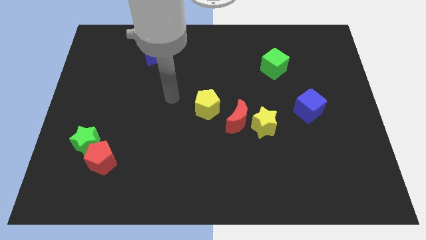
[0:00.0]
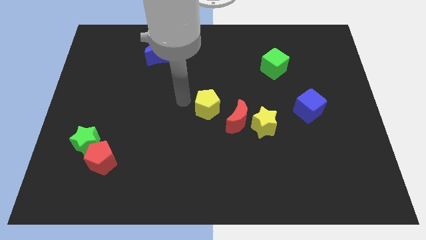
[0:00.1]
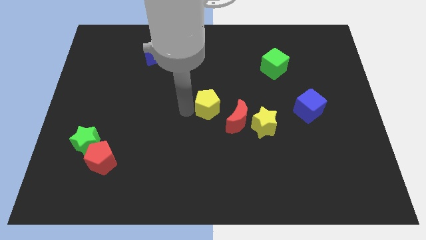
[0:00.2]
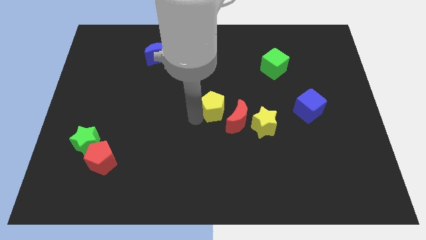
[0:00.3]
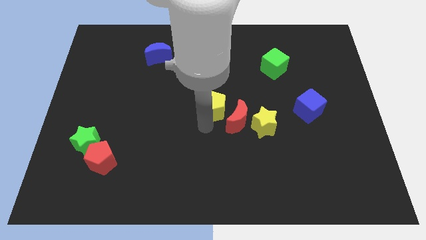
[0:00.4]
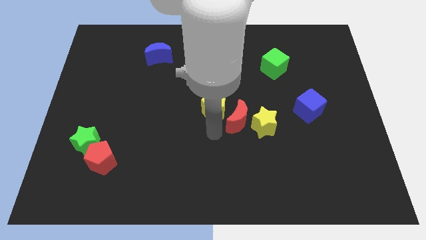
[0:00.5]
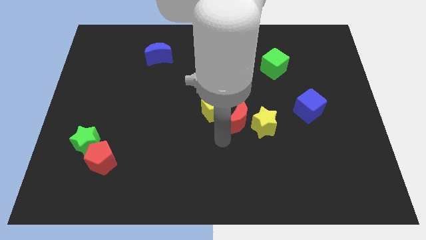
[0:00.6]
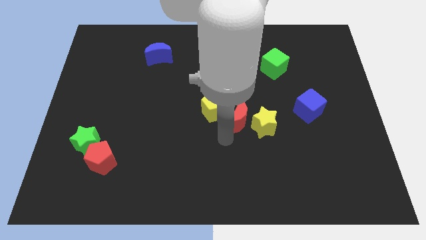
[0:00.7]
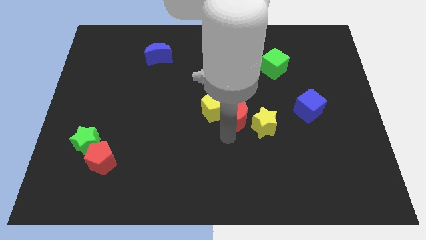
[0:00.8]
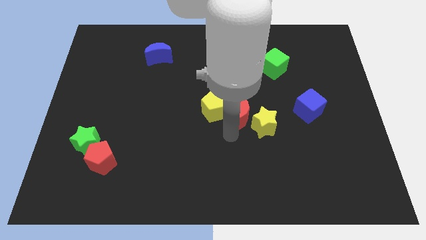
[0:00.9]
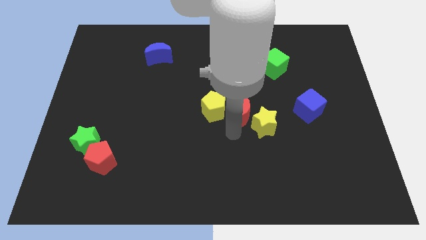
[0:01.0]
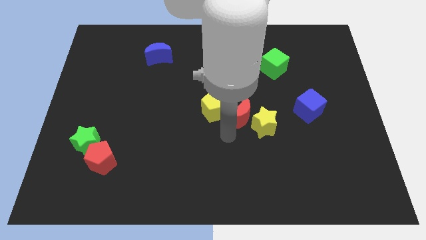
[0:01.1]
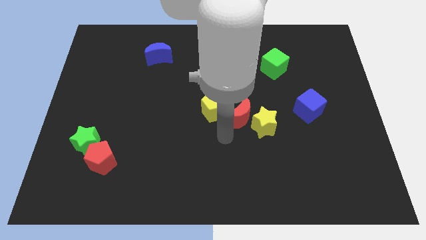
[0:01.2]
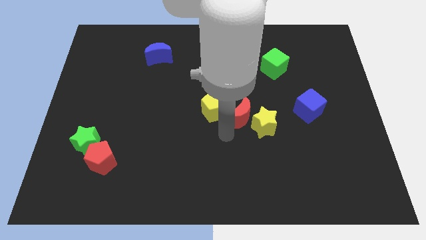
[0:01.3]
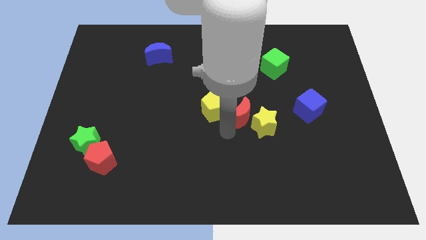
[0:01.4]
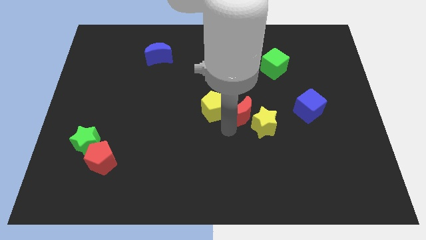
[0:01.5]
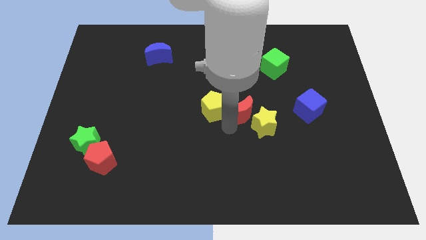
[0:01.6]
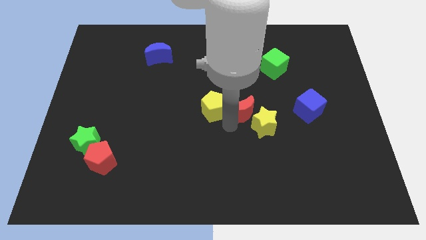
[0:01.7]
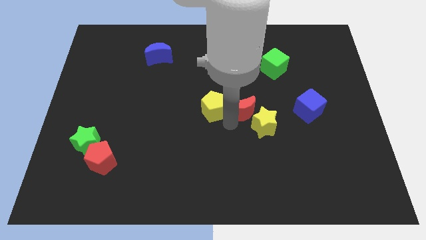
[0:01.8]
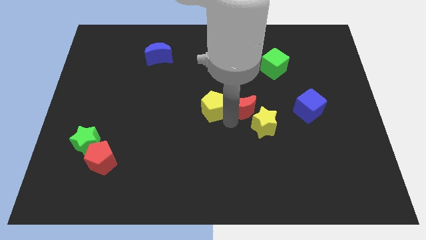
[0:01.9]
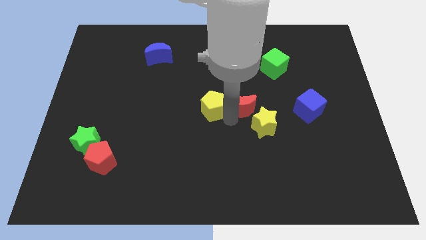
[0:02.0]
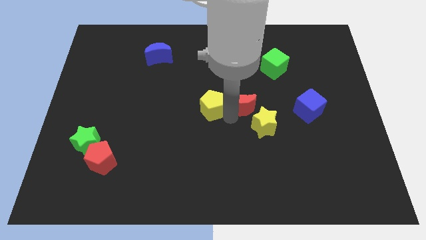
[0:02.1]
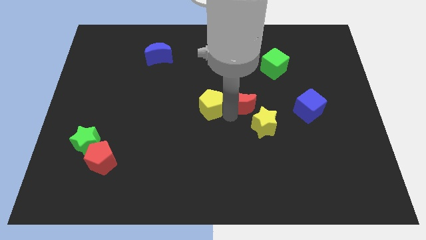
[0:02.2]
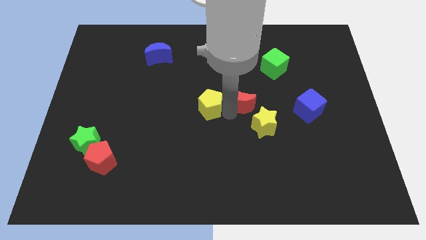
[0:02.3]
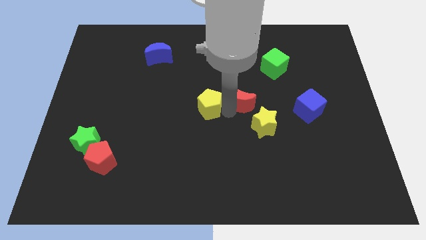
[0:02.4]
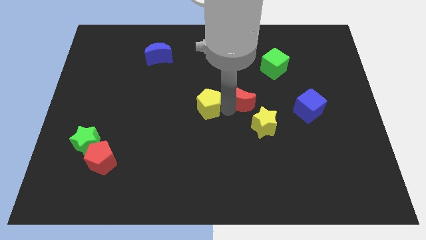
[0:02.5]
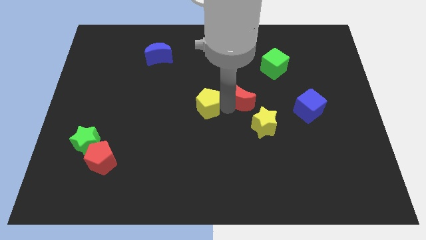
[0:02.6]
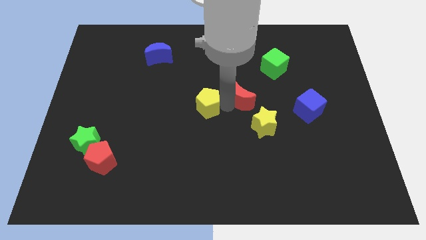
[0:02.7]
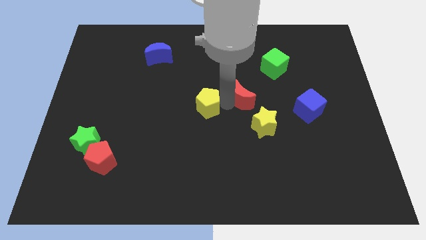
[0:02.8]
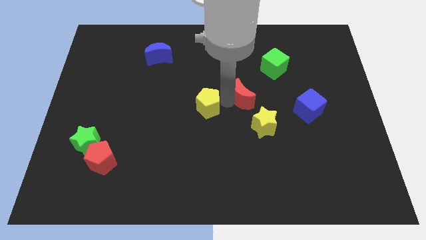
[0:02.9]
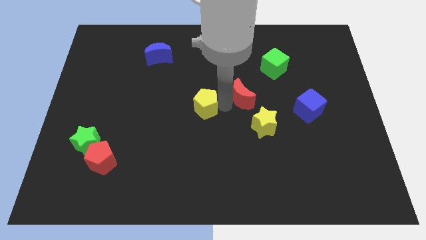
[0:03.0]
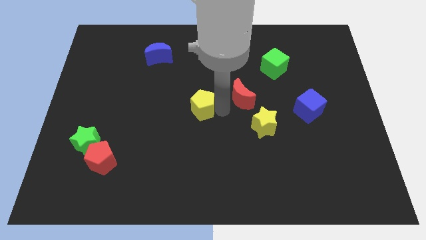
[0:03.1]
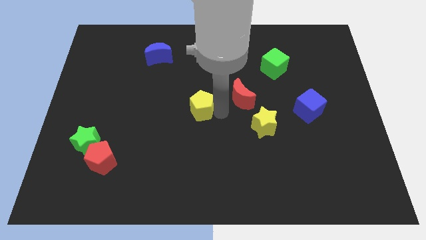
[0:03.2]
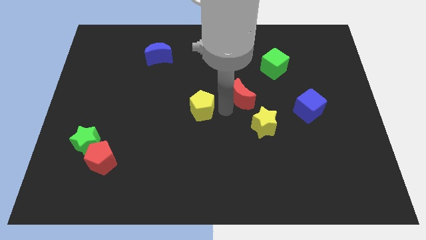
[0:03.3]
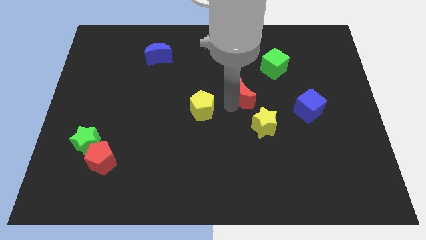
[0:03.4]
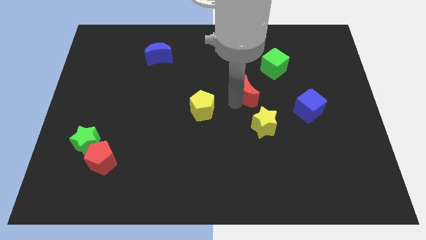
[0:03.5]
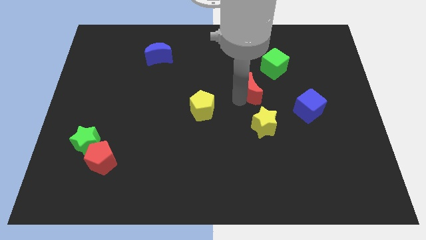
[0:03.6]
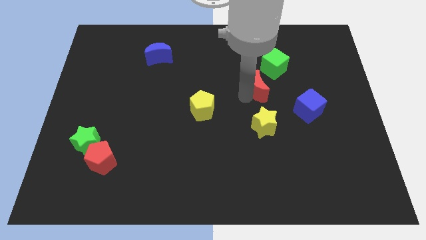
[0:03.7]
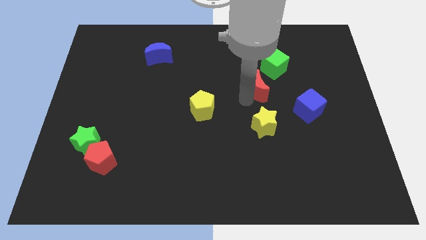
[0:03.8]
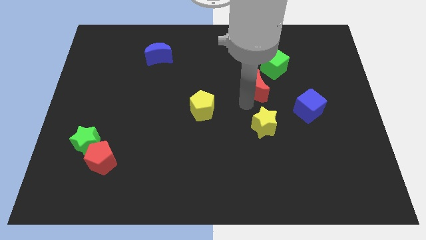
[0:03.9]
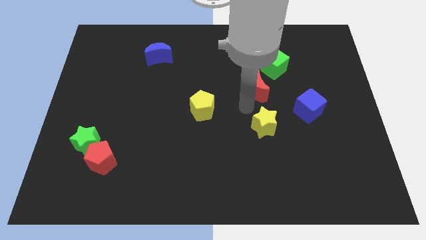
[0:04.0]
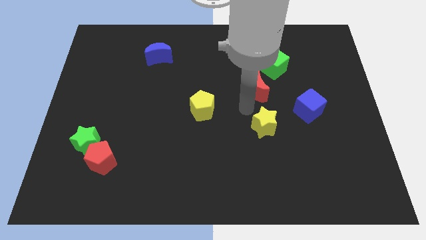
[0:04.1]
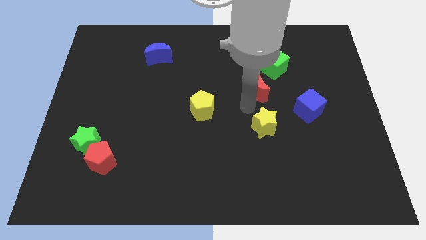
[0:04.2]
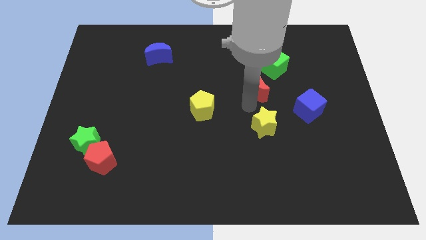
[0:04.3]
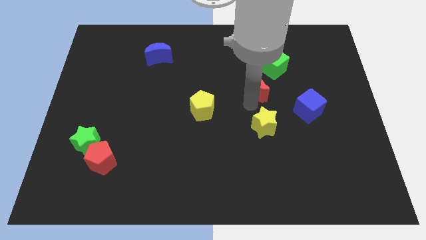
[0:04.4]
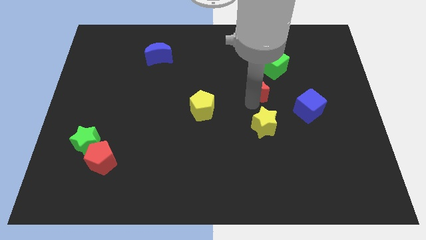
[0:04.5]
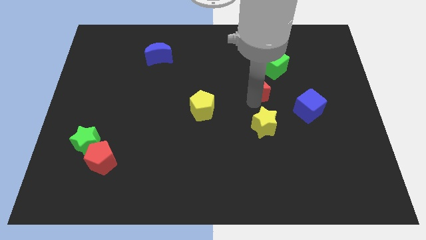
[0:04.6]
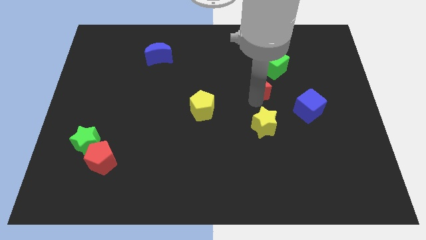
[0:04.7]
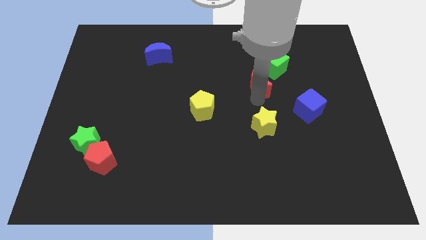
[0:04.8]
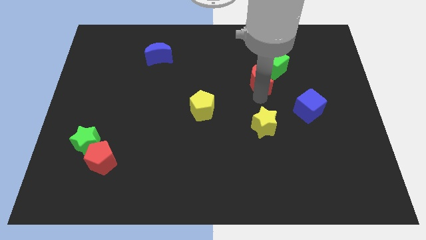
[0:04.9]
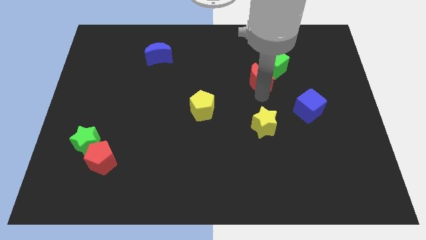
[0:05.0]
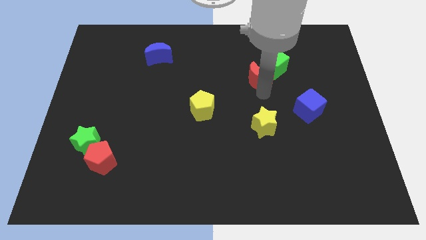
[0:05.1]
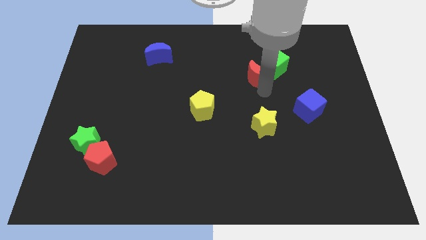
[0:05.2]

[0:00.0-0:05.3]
slide the red moon close to the green cube

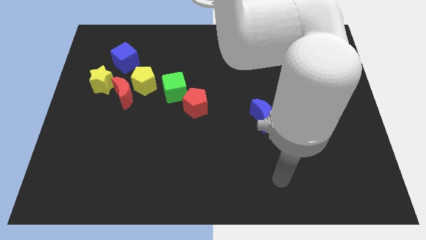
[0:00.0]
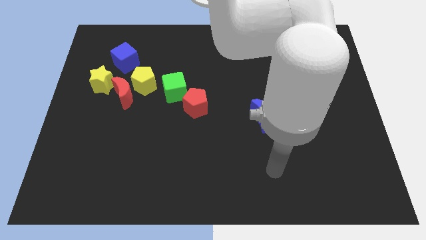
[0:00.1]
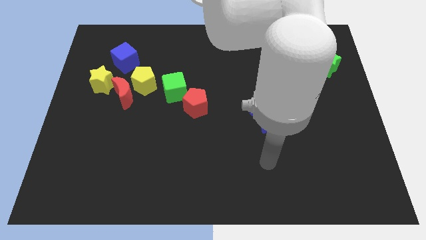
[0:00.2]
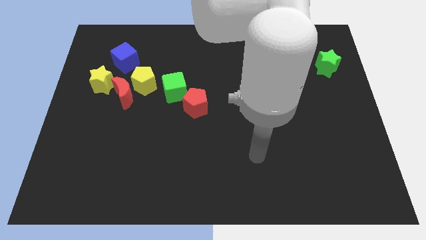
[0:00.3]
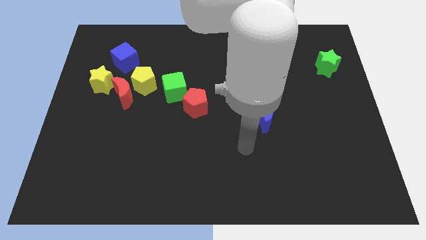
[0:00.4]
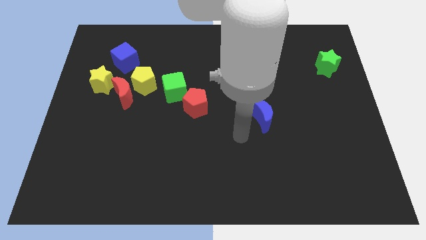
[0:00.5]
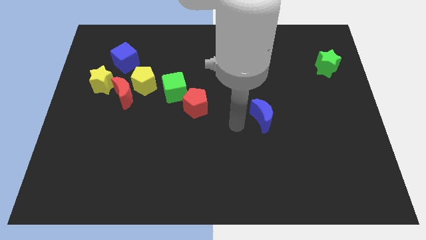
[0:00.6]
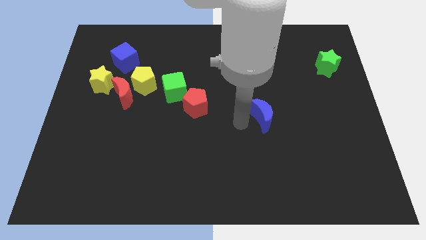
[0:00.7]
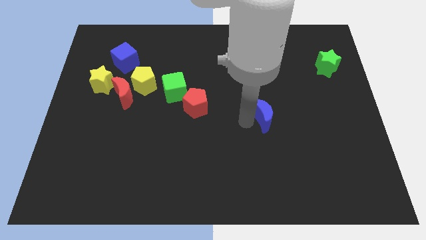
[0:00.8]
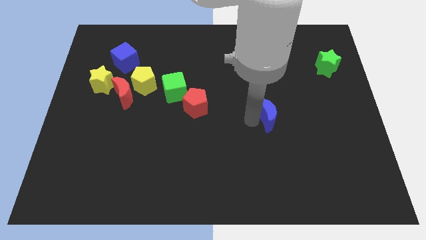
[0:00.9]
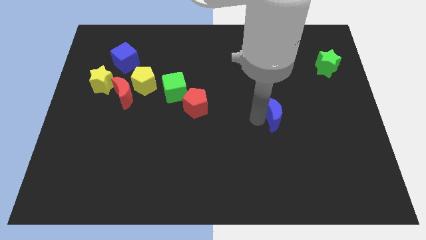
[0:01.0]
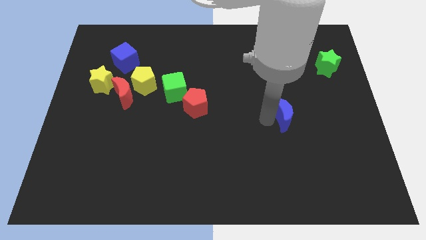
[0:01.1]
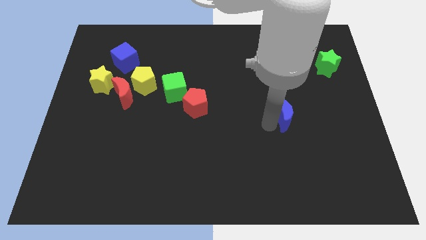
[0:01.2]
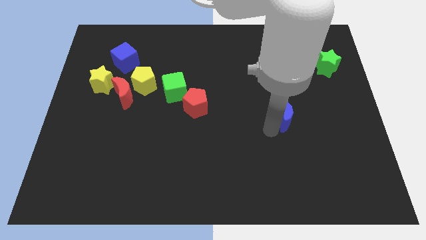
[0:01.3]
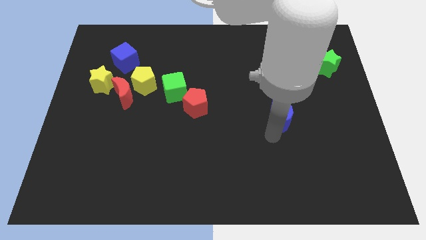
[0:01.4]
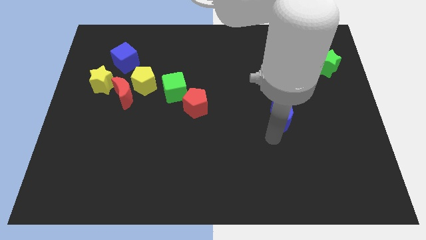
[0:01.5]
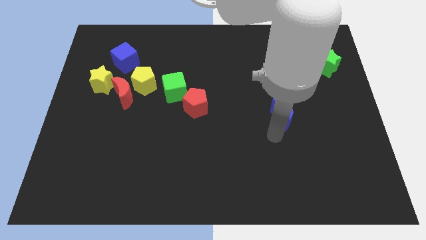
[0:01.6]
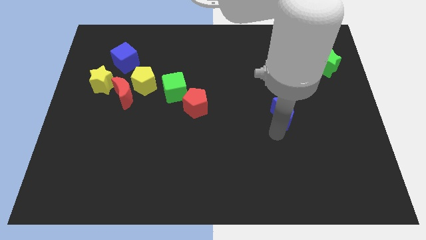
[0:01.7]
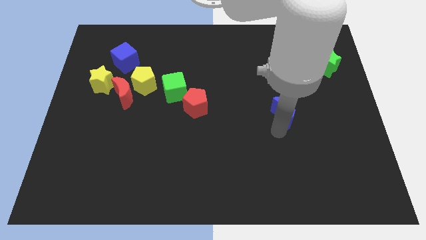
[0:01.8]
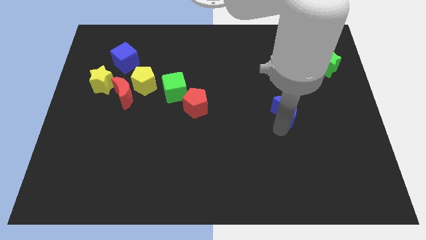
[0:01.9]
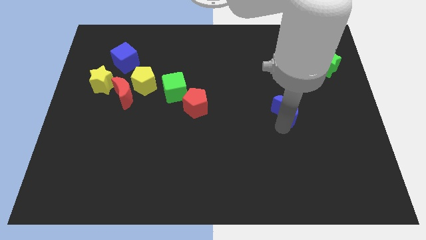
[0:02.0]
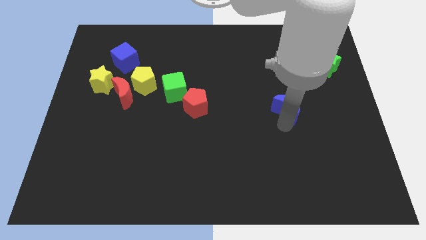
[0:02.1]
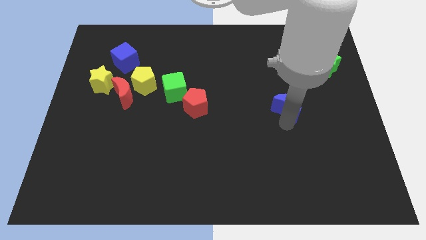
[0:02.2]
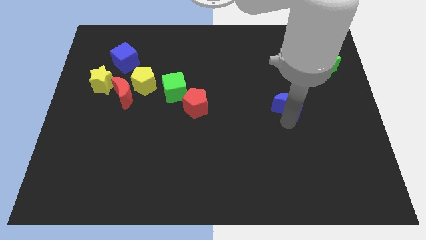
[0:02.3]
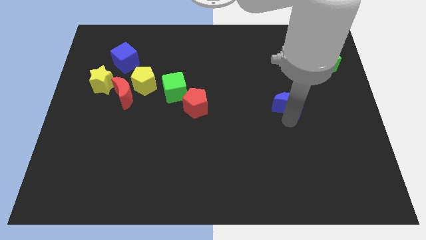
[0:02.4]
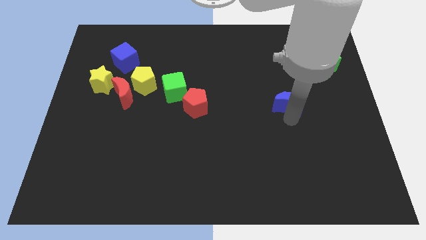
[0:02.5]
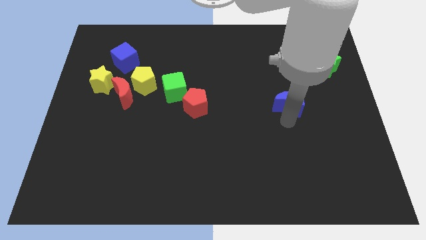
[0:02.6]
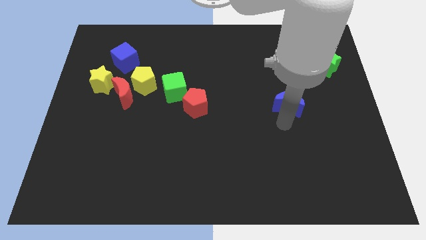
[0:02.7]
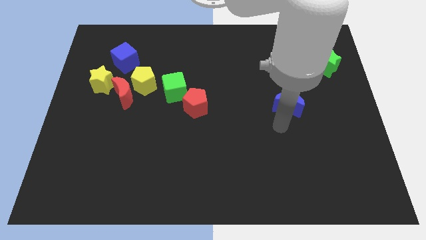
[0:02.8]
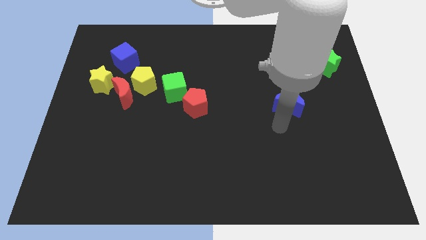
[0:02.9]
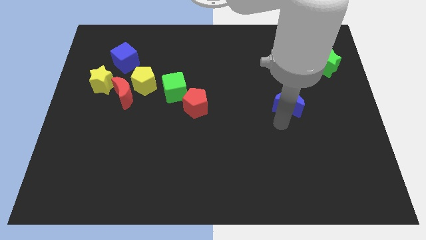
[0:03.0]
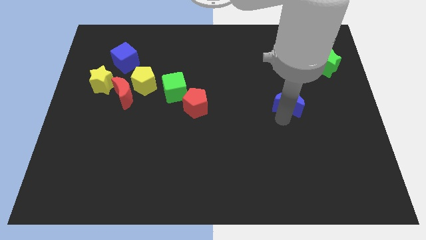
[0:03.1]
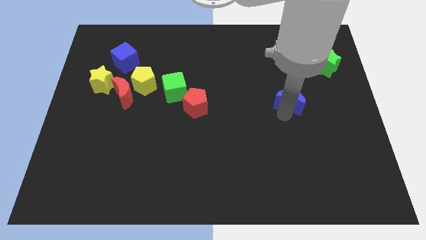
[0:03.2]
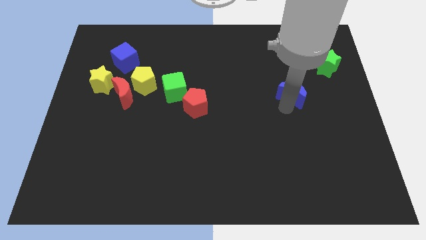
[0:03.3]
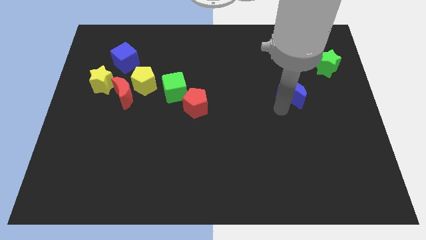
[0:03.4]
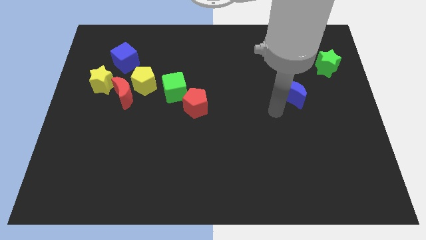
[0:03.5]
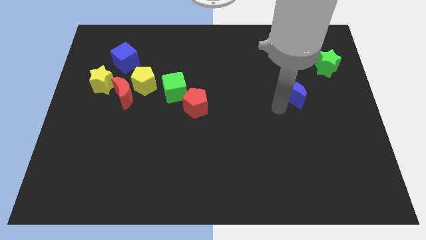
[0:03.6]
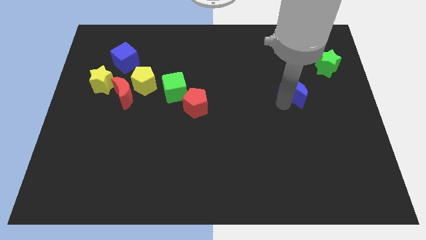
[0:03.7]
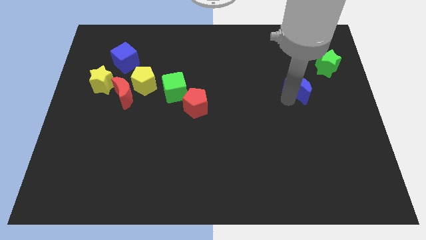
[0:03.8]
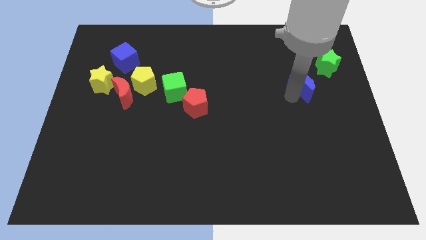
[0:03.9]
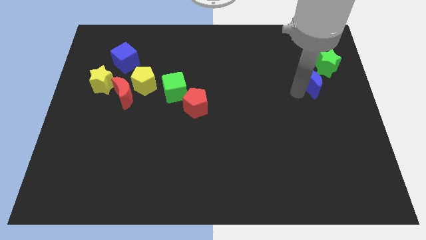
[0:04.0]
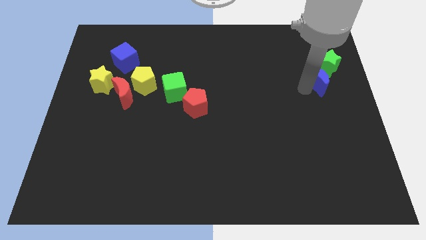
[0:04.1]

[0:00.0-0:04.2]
put the blue moon towards the green star
